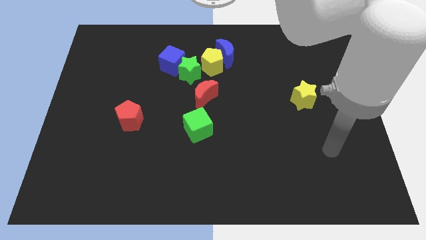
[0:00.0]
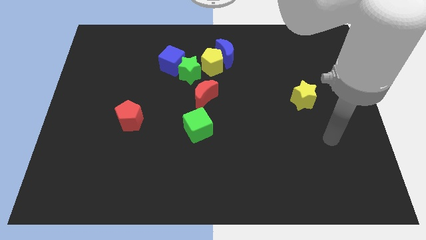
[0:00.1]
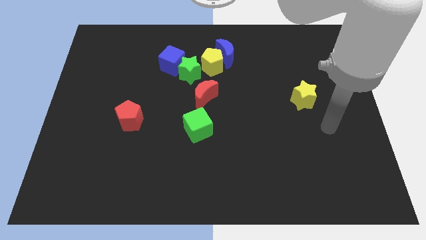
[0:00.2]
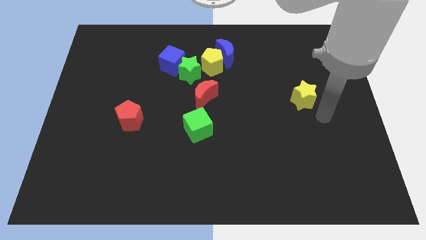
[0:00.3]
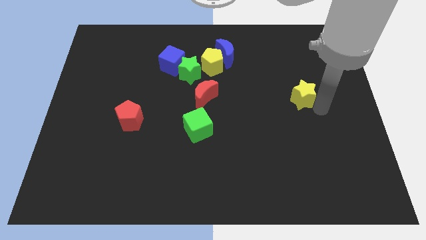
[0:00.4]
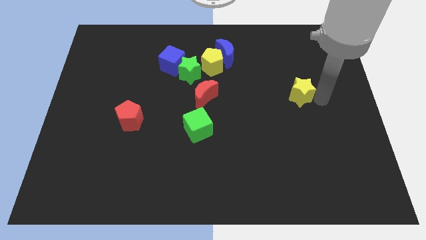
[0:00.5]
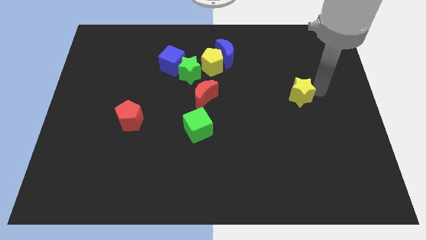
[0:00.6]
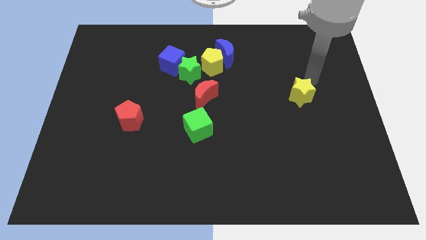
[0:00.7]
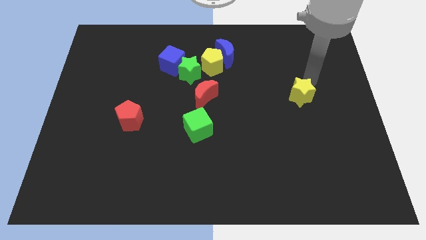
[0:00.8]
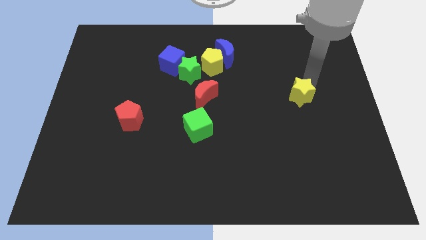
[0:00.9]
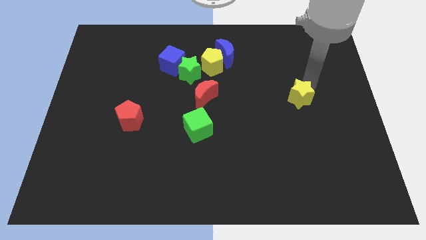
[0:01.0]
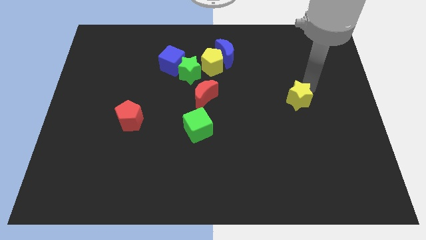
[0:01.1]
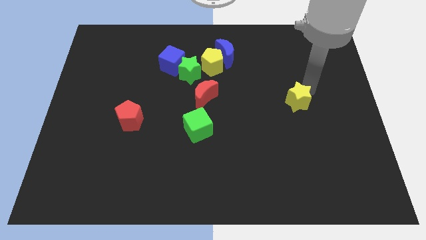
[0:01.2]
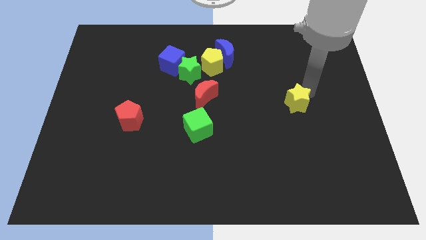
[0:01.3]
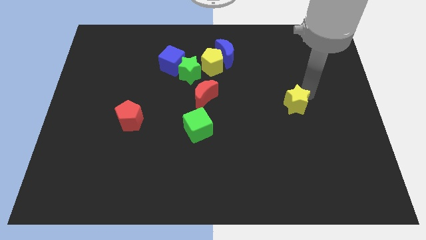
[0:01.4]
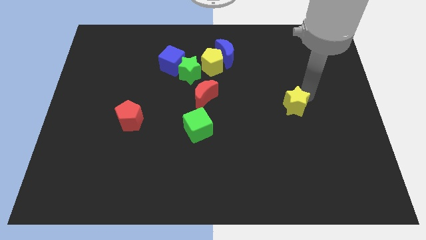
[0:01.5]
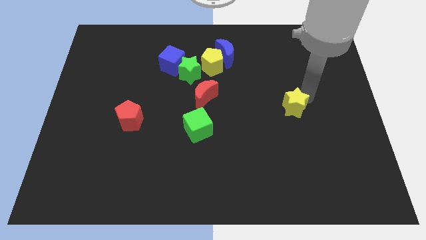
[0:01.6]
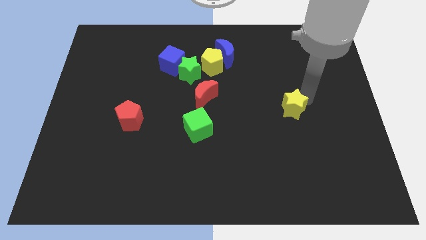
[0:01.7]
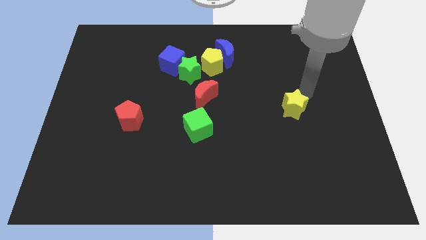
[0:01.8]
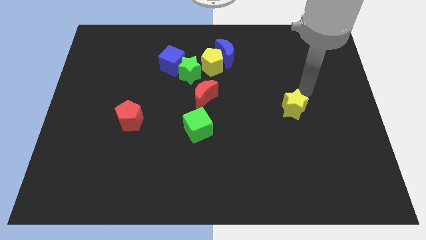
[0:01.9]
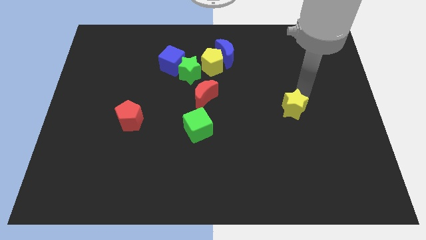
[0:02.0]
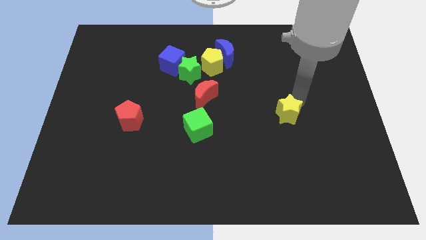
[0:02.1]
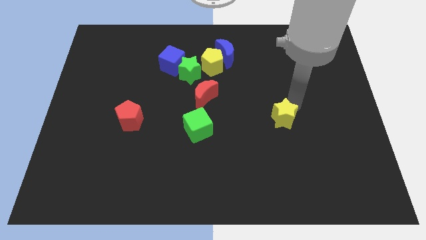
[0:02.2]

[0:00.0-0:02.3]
move the yellow star a little bit down and to the left diagonally

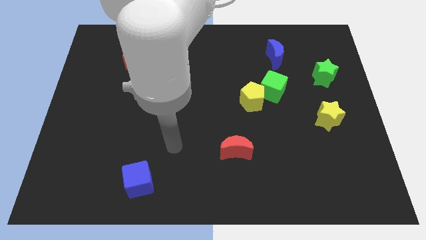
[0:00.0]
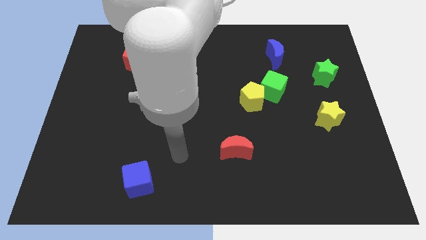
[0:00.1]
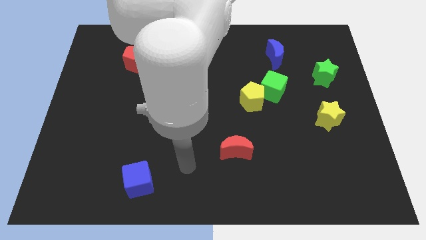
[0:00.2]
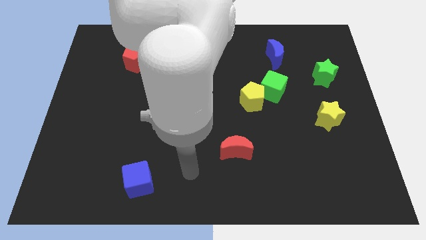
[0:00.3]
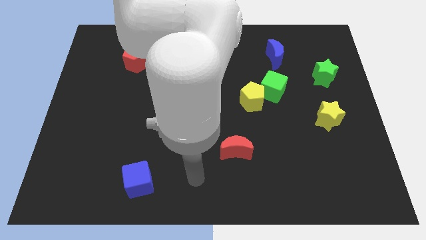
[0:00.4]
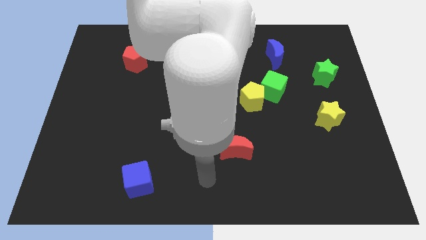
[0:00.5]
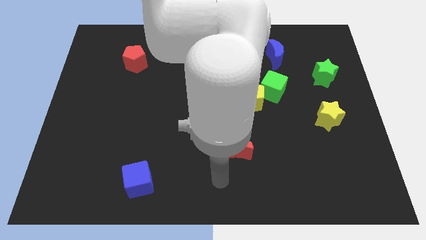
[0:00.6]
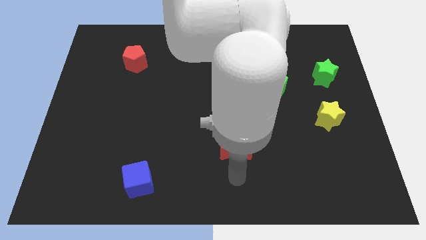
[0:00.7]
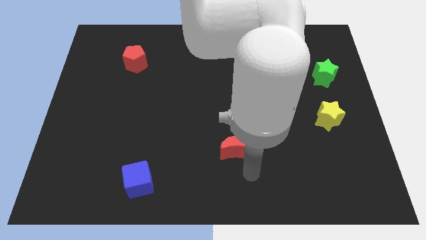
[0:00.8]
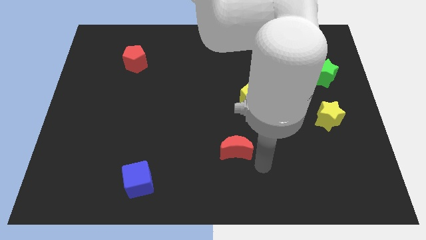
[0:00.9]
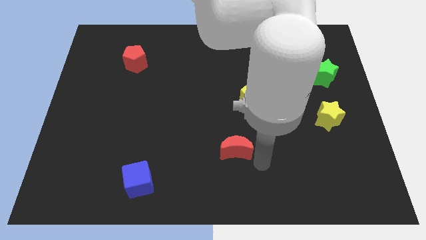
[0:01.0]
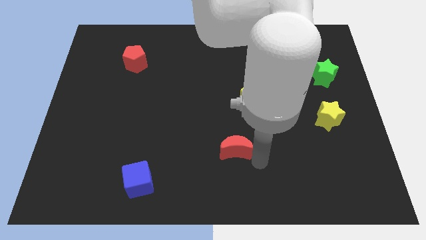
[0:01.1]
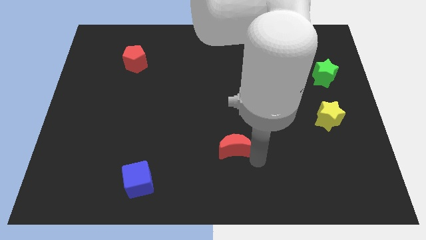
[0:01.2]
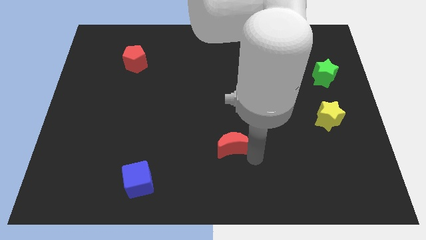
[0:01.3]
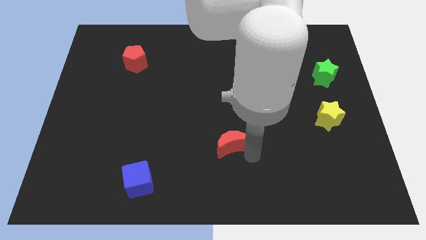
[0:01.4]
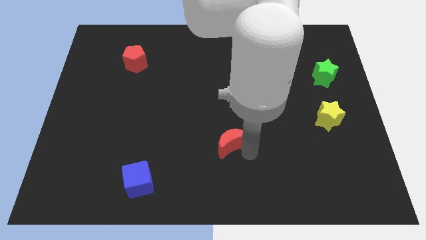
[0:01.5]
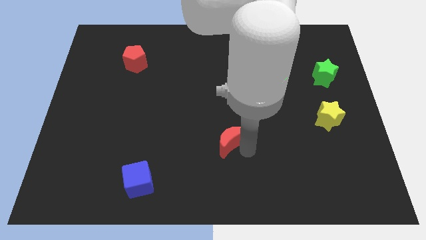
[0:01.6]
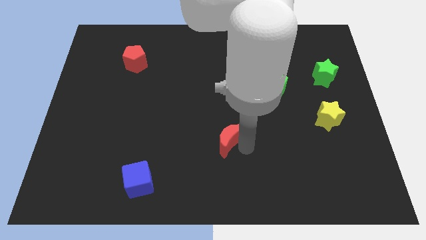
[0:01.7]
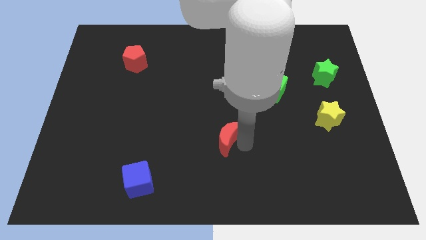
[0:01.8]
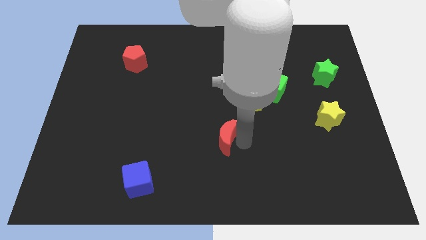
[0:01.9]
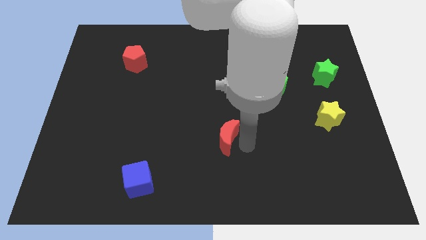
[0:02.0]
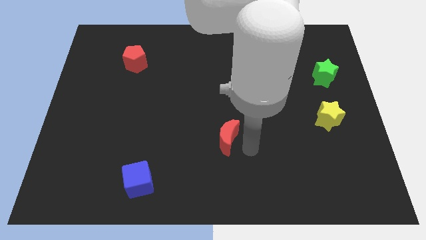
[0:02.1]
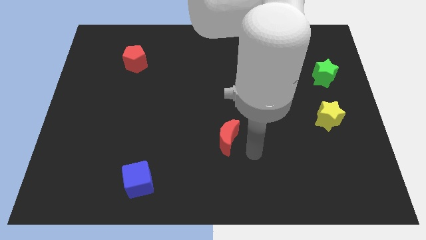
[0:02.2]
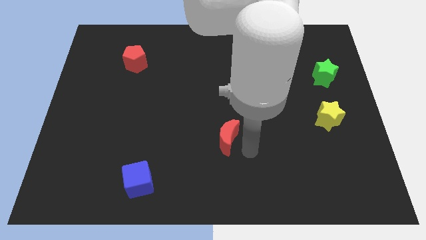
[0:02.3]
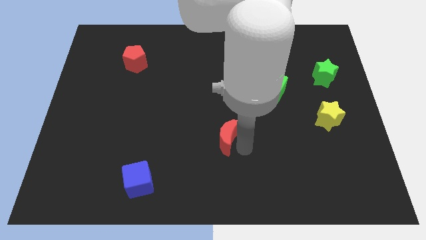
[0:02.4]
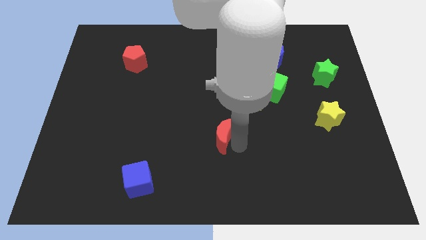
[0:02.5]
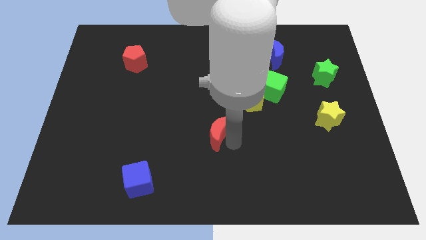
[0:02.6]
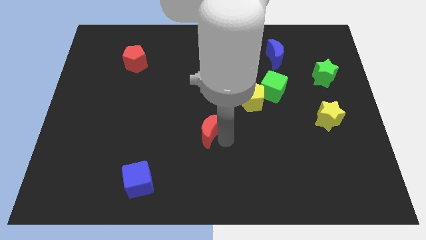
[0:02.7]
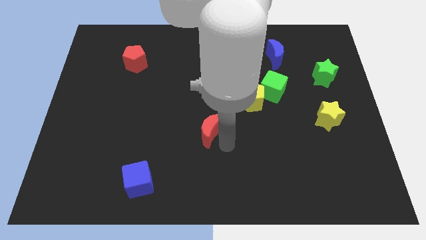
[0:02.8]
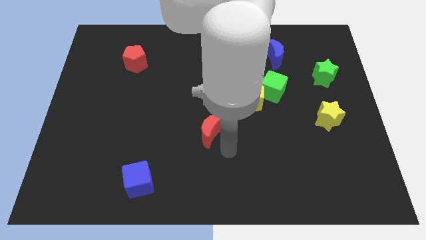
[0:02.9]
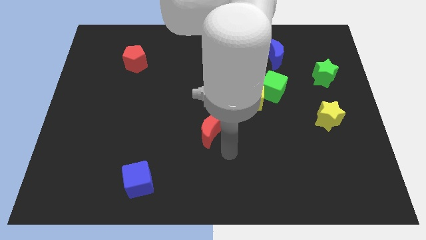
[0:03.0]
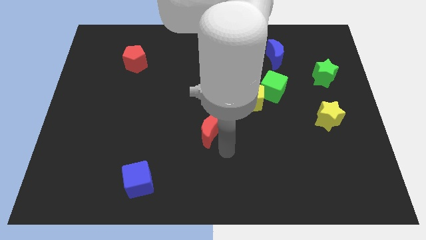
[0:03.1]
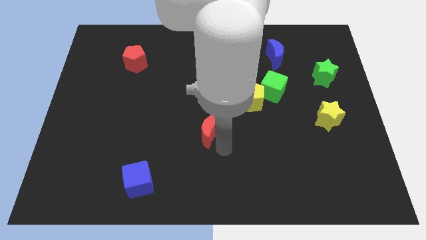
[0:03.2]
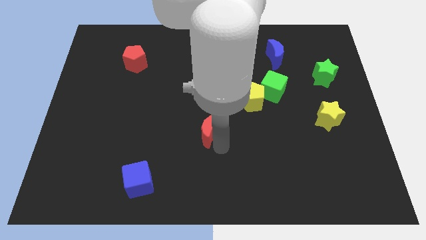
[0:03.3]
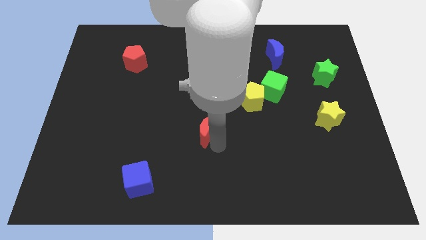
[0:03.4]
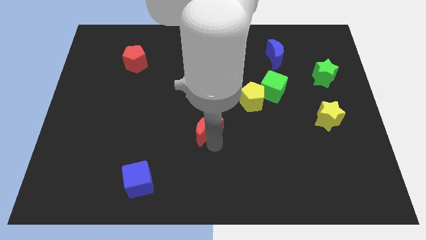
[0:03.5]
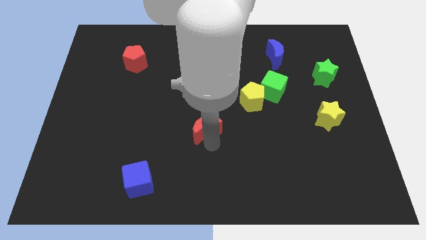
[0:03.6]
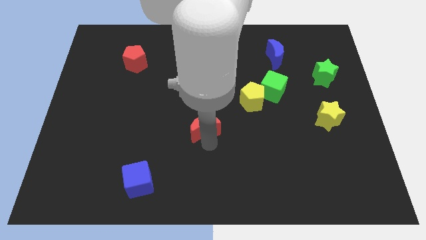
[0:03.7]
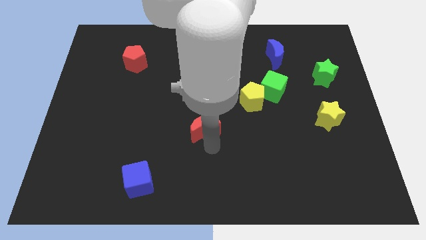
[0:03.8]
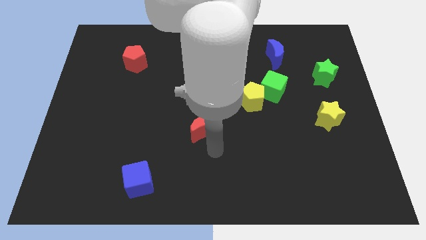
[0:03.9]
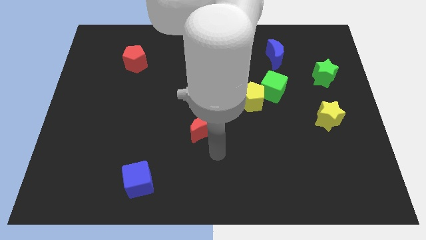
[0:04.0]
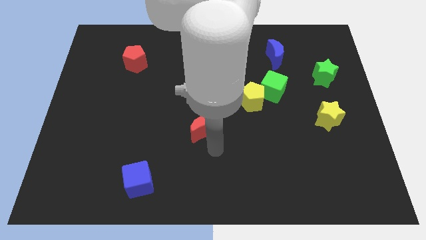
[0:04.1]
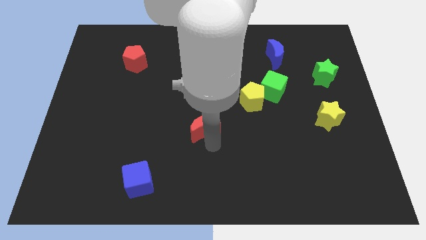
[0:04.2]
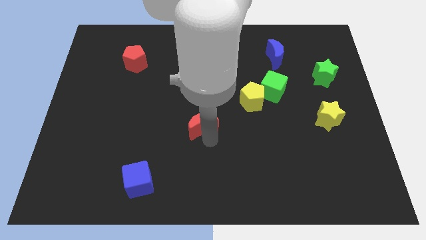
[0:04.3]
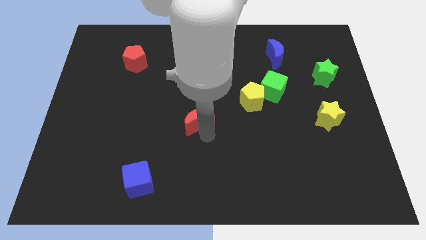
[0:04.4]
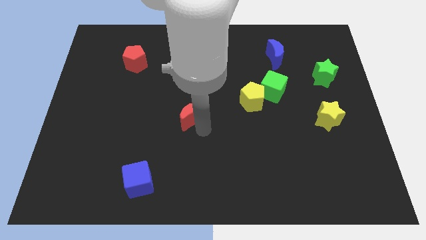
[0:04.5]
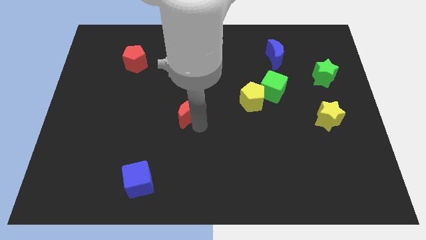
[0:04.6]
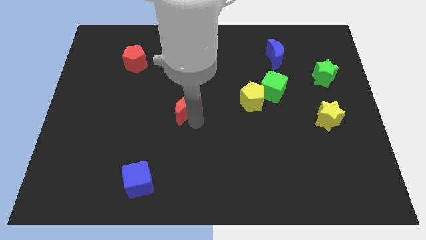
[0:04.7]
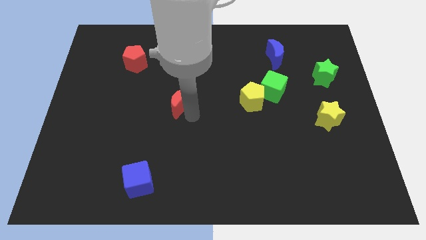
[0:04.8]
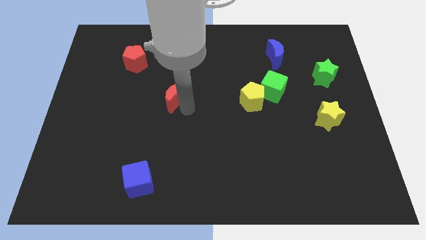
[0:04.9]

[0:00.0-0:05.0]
slide the red moon upwards and to the left

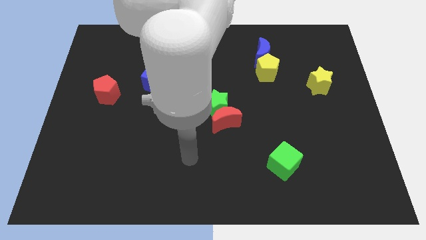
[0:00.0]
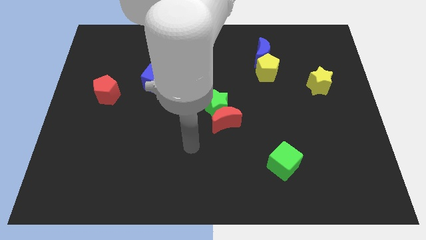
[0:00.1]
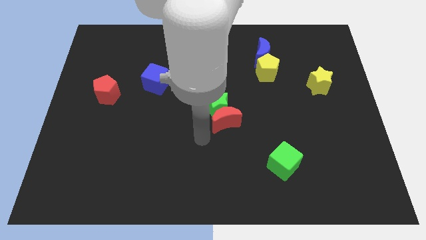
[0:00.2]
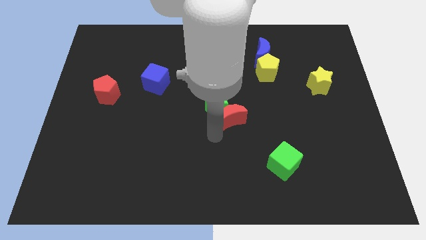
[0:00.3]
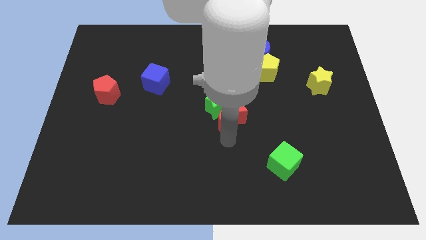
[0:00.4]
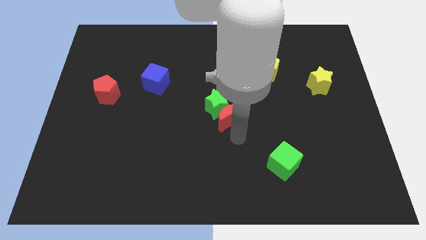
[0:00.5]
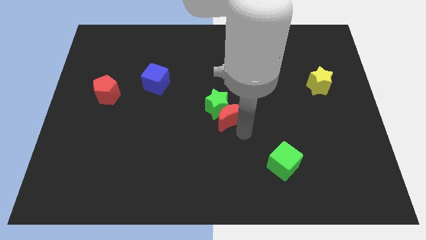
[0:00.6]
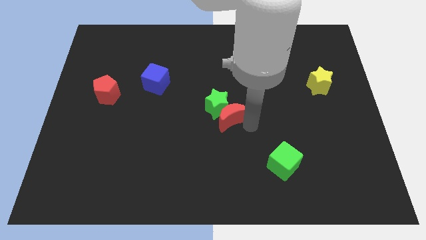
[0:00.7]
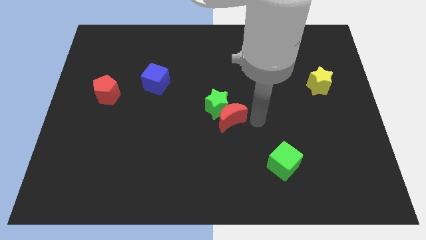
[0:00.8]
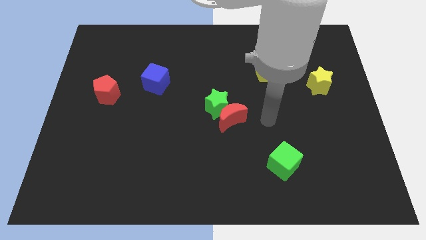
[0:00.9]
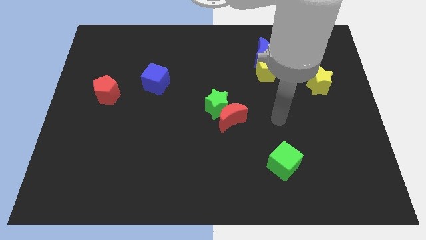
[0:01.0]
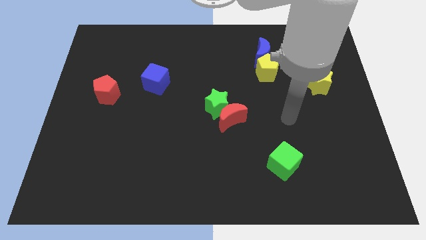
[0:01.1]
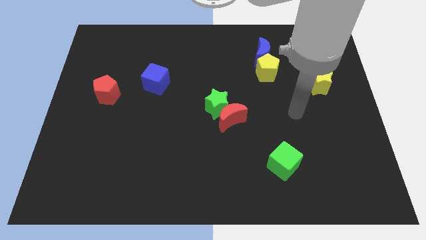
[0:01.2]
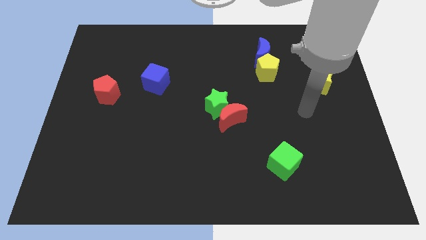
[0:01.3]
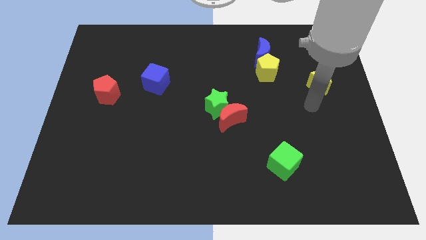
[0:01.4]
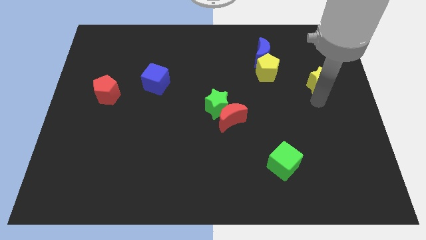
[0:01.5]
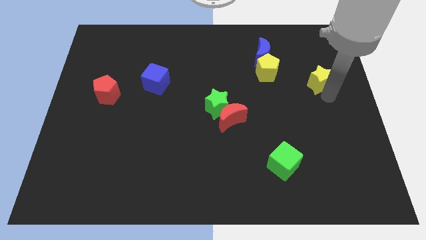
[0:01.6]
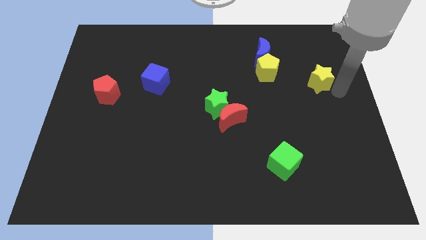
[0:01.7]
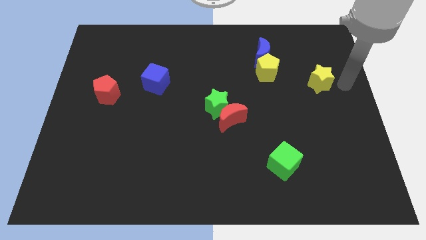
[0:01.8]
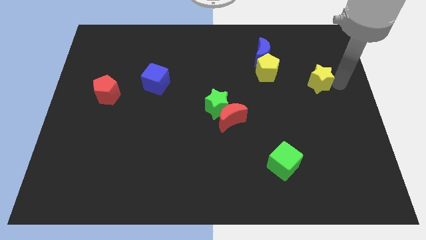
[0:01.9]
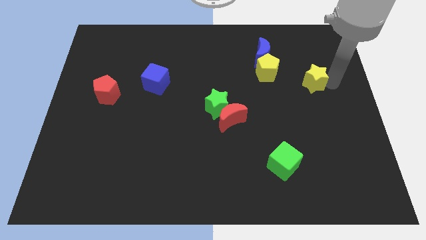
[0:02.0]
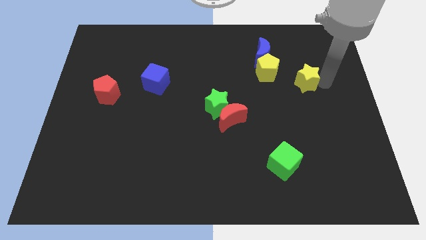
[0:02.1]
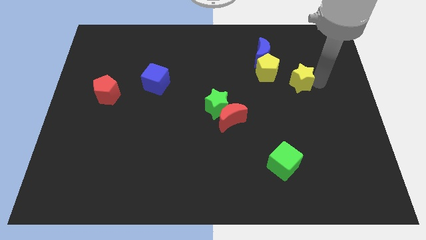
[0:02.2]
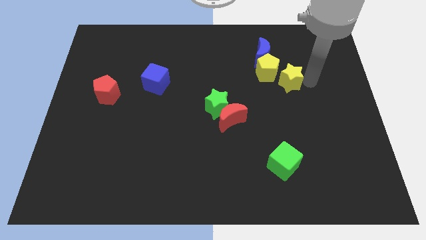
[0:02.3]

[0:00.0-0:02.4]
push the yellow star left somewhat
